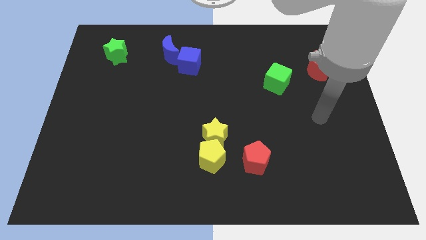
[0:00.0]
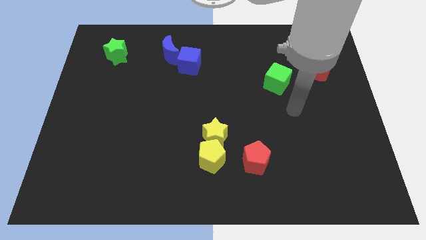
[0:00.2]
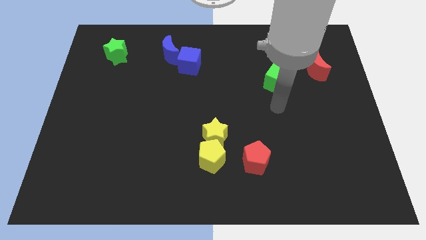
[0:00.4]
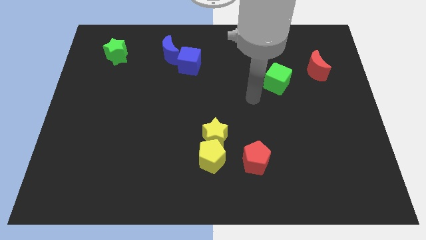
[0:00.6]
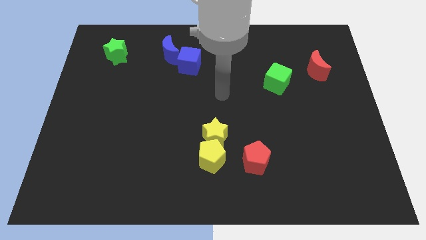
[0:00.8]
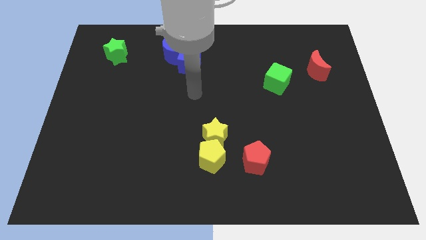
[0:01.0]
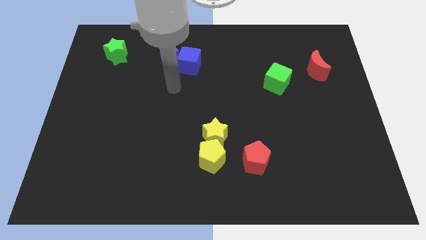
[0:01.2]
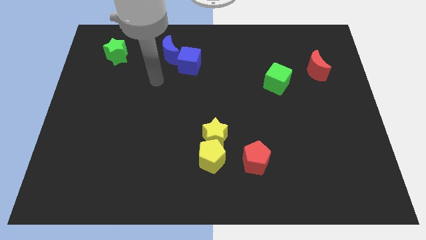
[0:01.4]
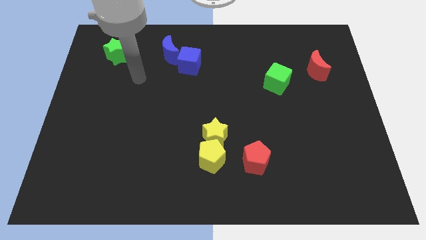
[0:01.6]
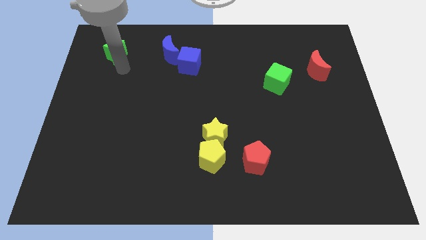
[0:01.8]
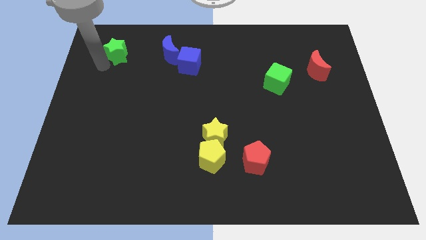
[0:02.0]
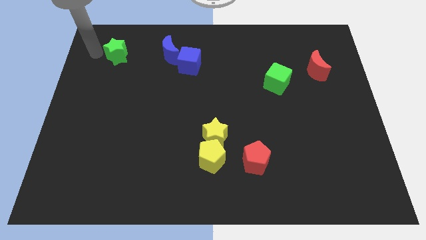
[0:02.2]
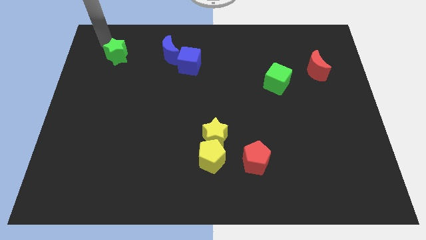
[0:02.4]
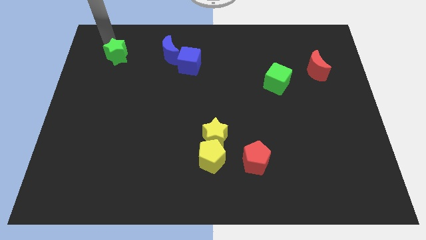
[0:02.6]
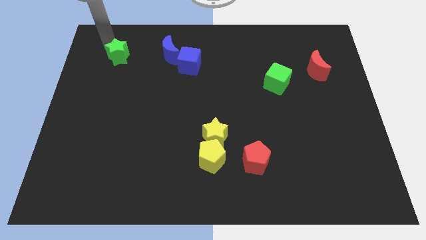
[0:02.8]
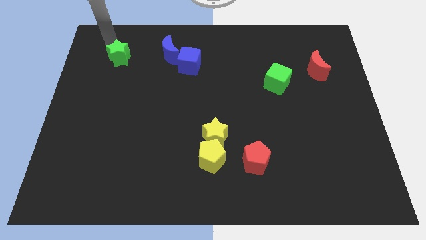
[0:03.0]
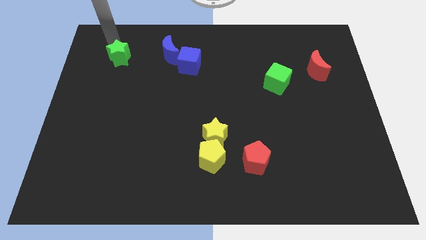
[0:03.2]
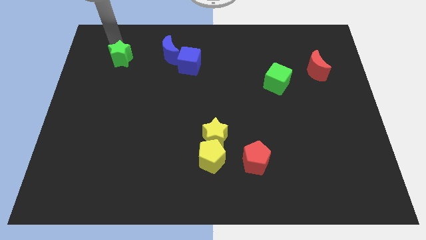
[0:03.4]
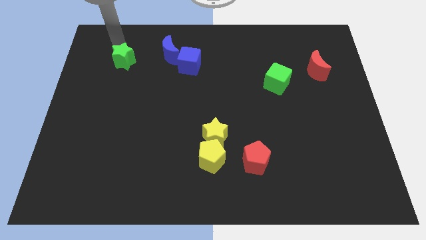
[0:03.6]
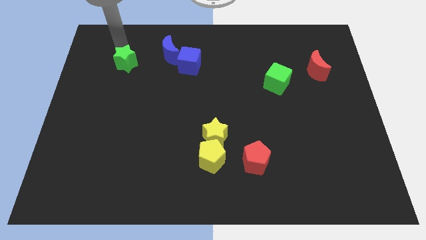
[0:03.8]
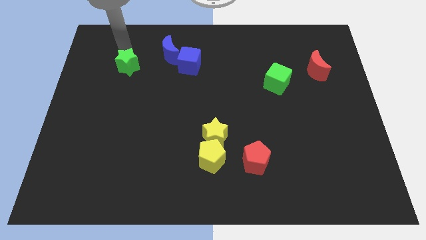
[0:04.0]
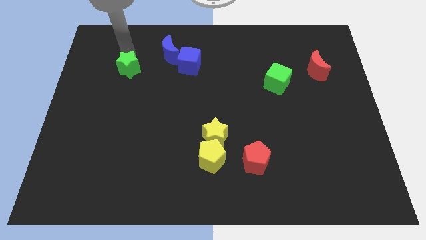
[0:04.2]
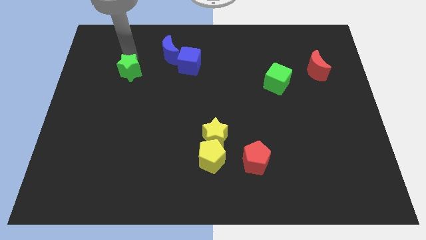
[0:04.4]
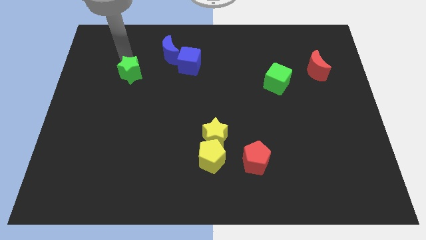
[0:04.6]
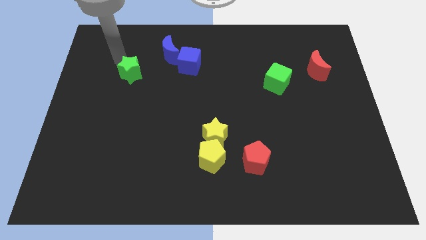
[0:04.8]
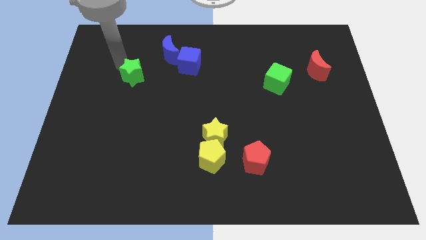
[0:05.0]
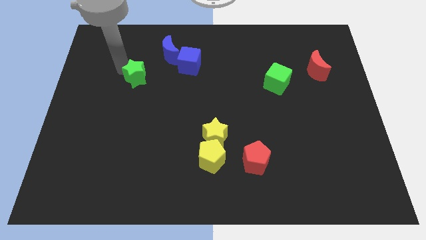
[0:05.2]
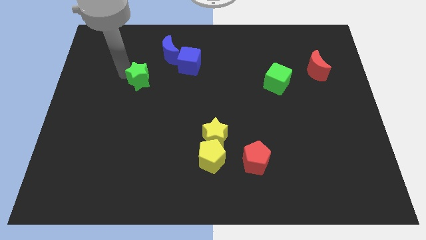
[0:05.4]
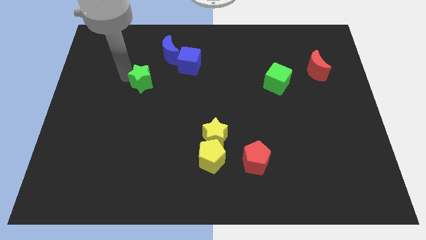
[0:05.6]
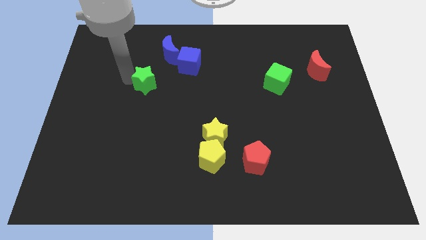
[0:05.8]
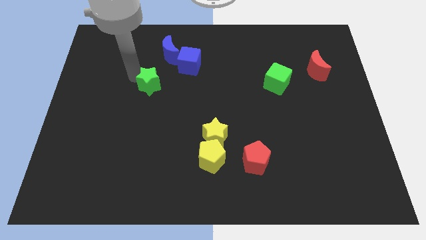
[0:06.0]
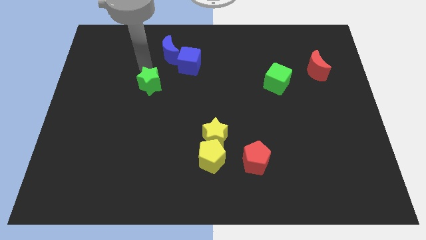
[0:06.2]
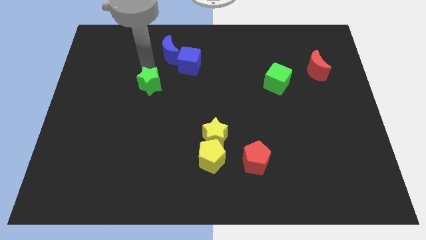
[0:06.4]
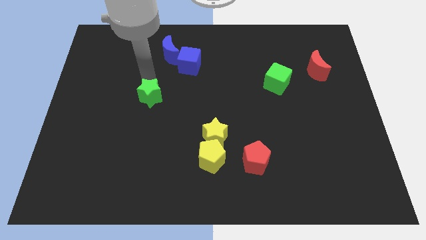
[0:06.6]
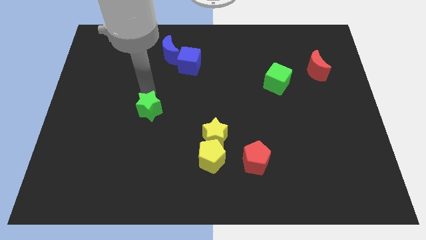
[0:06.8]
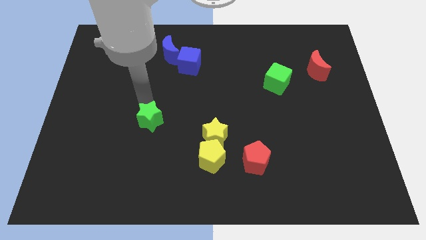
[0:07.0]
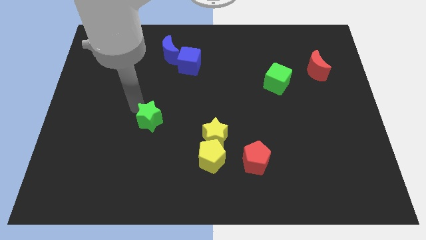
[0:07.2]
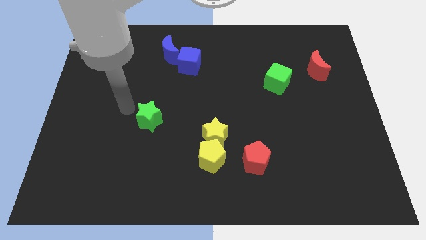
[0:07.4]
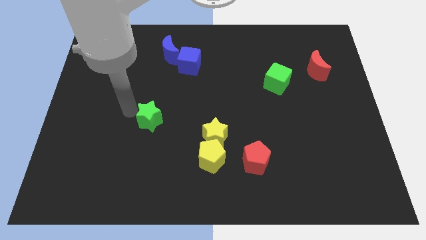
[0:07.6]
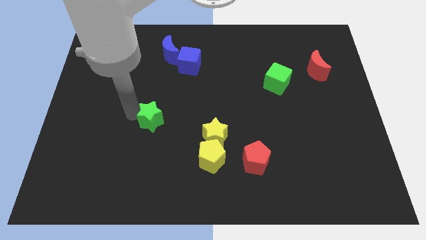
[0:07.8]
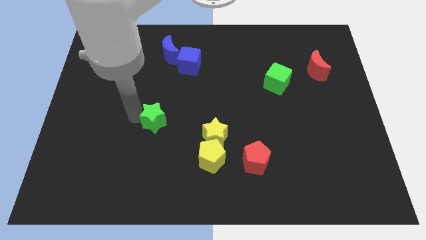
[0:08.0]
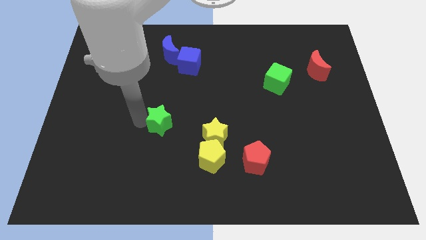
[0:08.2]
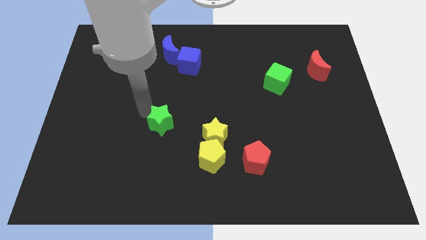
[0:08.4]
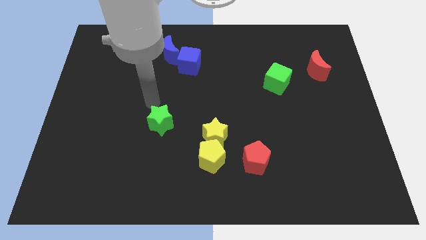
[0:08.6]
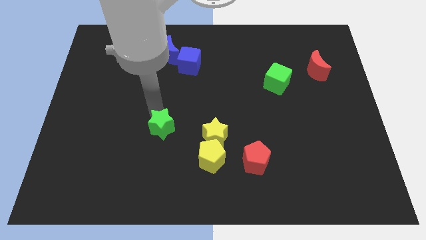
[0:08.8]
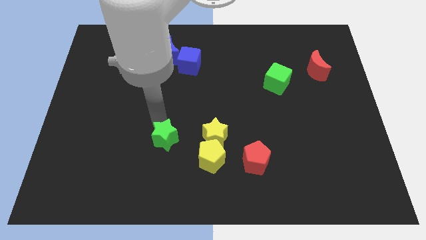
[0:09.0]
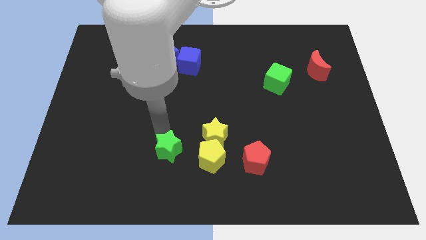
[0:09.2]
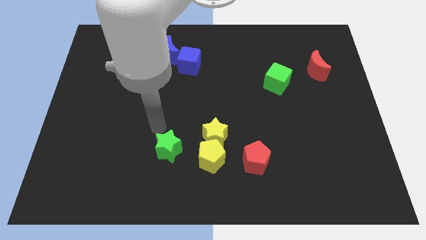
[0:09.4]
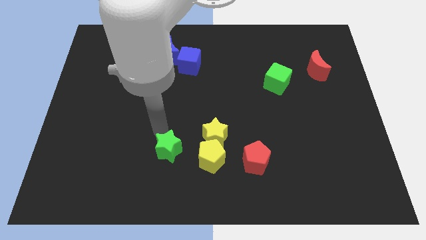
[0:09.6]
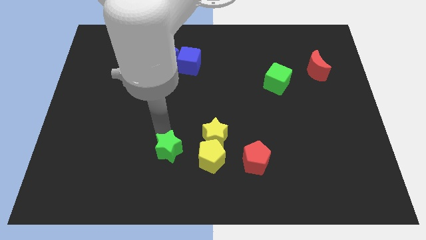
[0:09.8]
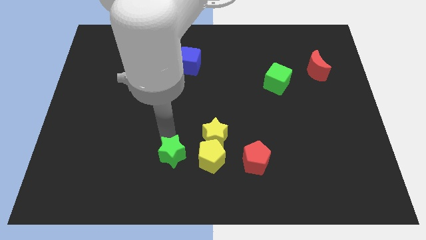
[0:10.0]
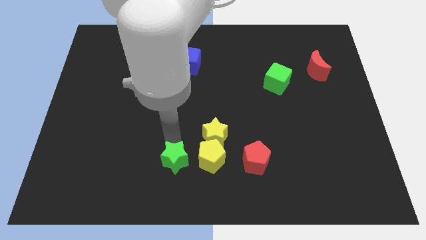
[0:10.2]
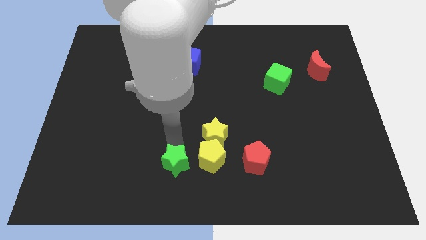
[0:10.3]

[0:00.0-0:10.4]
move the green star to the bottom side

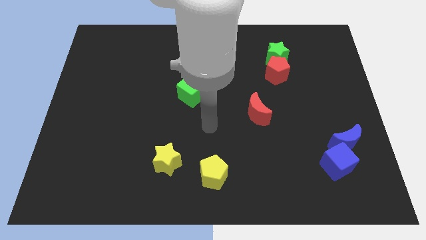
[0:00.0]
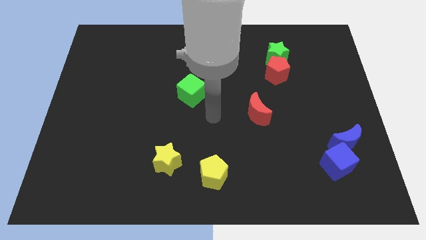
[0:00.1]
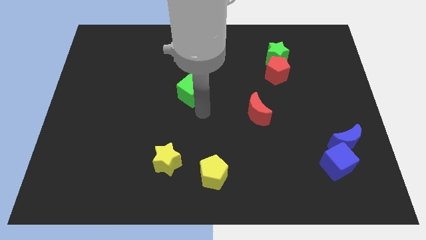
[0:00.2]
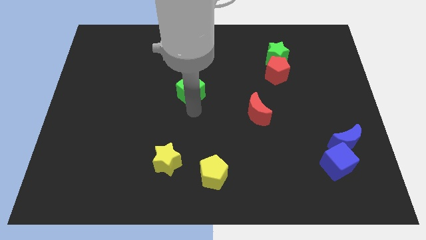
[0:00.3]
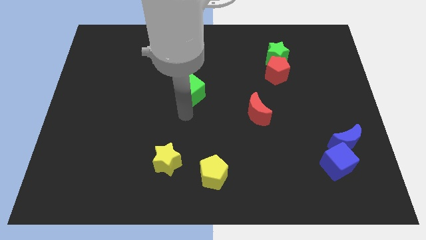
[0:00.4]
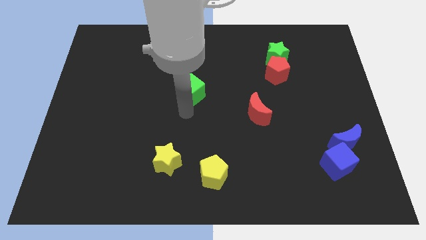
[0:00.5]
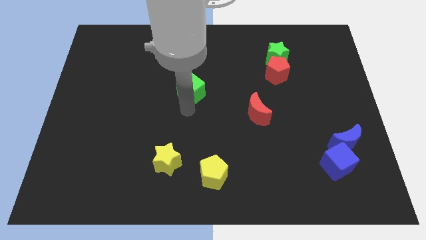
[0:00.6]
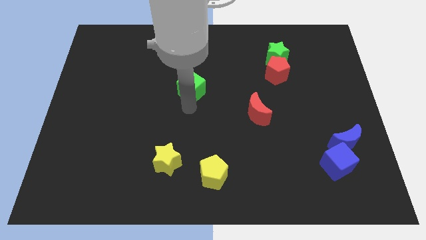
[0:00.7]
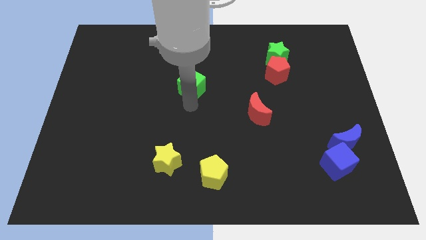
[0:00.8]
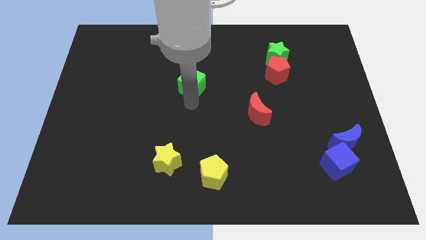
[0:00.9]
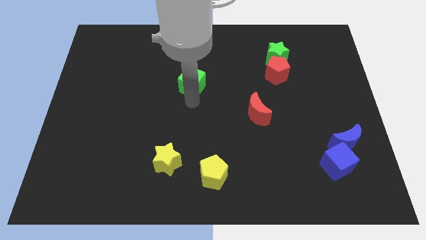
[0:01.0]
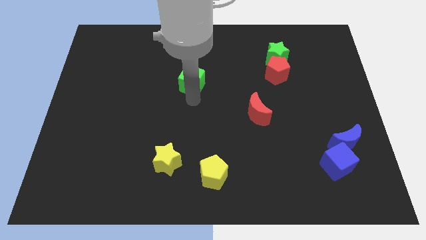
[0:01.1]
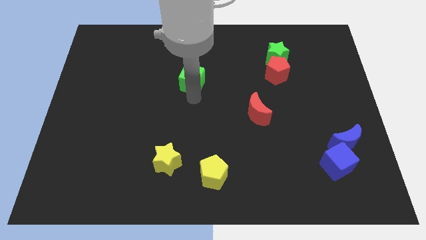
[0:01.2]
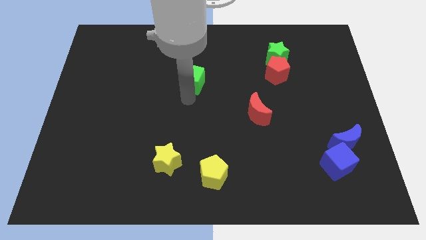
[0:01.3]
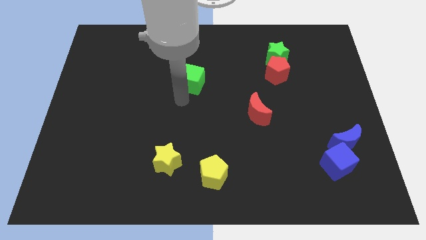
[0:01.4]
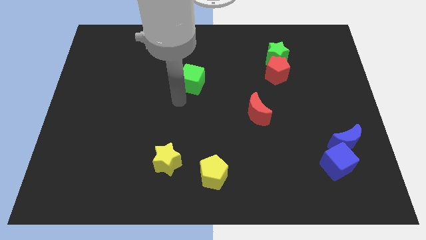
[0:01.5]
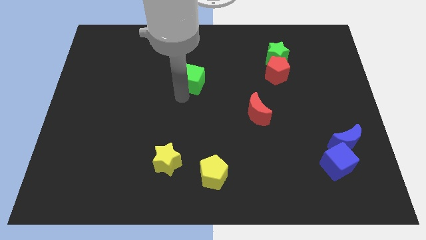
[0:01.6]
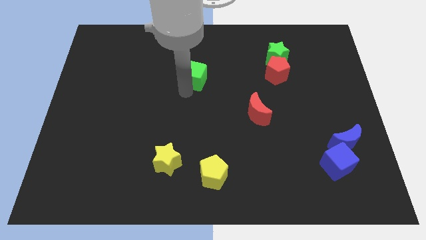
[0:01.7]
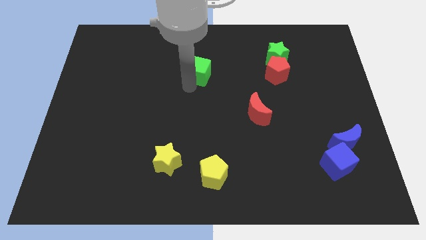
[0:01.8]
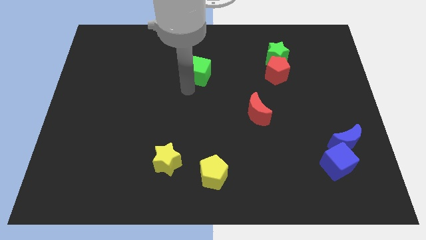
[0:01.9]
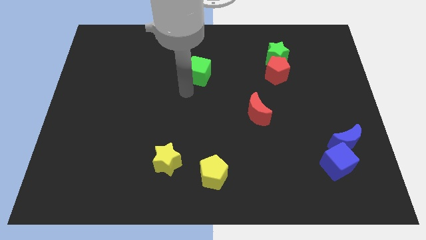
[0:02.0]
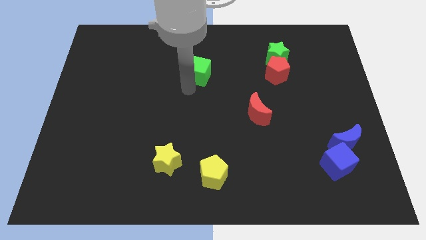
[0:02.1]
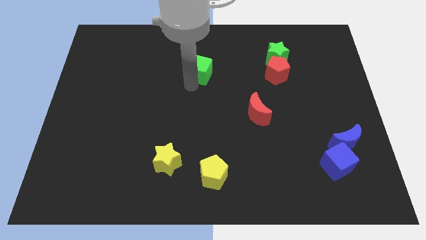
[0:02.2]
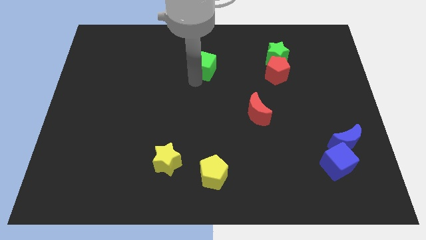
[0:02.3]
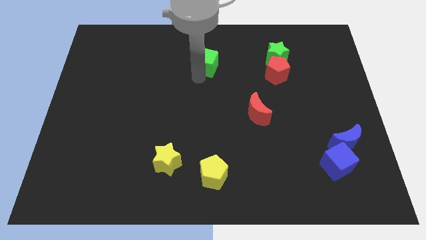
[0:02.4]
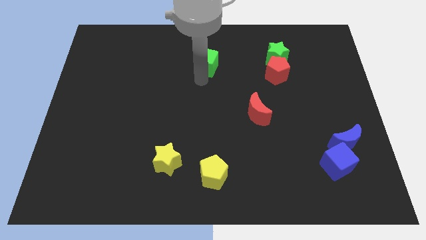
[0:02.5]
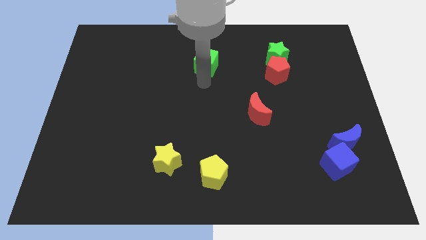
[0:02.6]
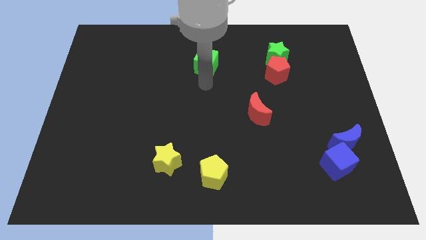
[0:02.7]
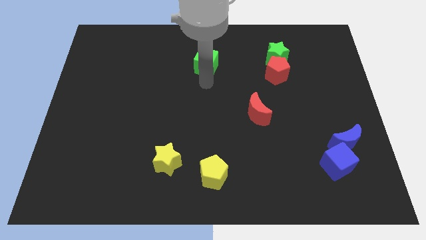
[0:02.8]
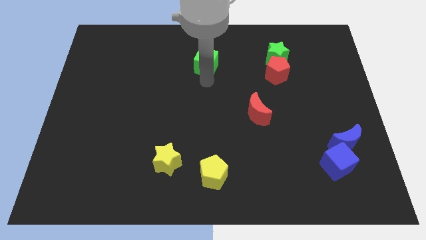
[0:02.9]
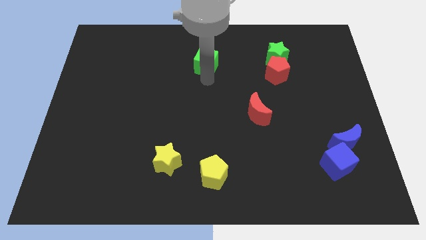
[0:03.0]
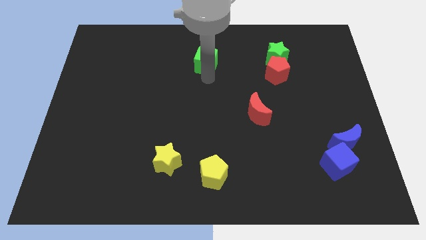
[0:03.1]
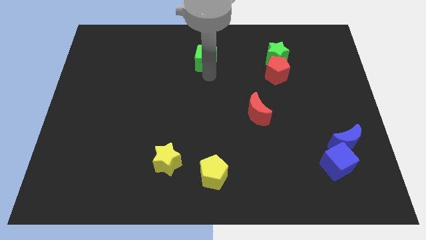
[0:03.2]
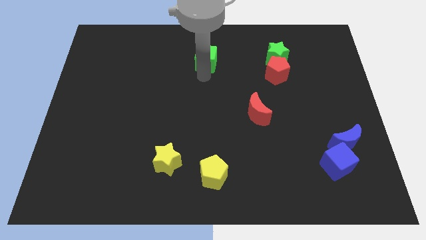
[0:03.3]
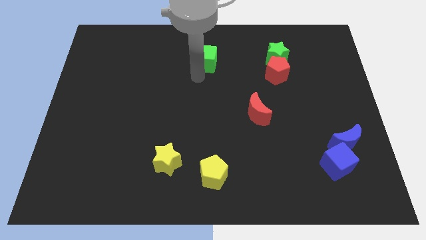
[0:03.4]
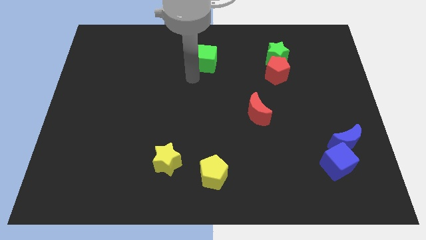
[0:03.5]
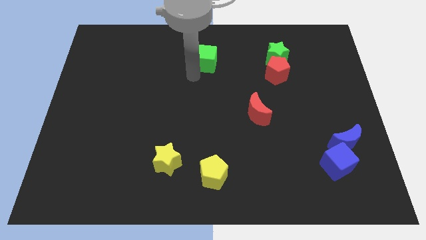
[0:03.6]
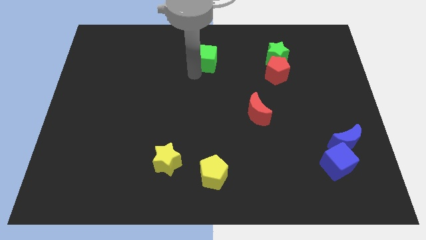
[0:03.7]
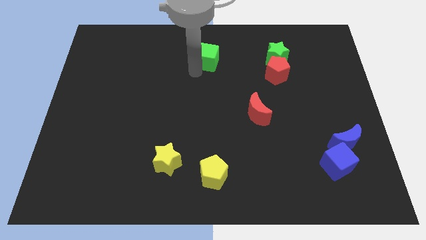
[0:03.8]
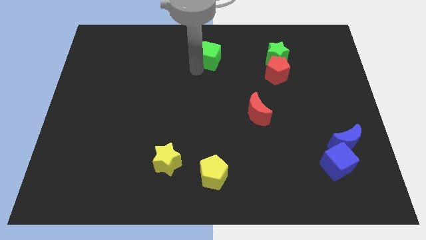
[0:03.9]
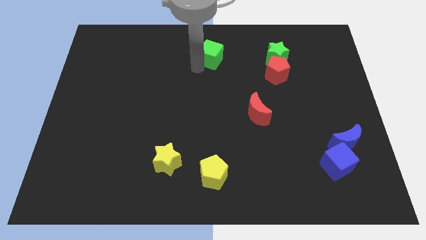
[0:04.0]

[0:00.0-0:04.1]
move the green cube to the towards your base
